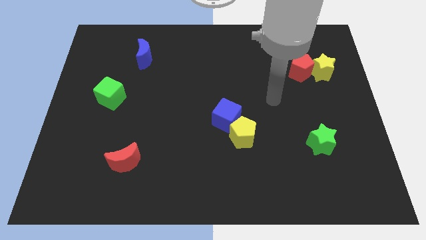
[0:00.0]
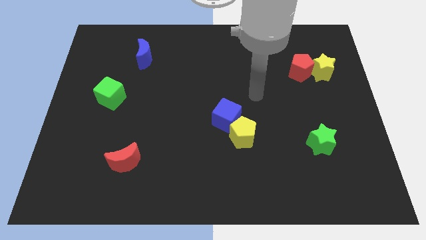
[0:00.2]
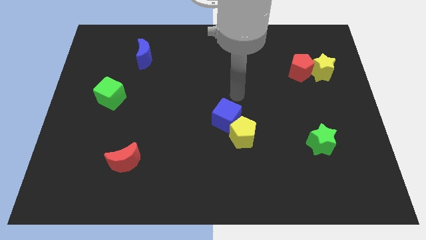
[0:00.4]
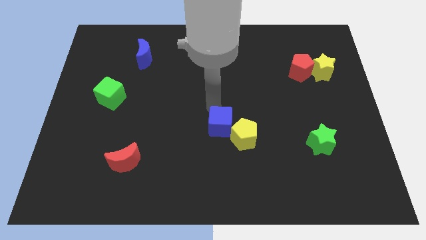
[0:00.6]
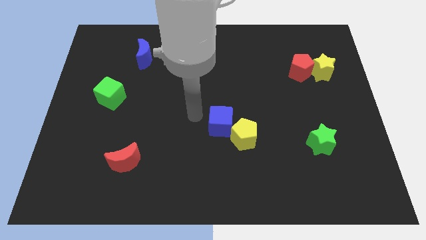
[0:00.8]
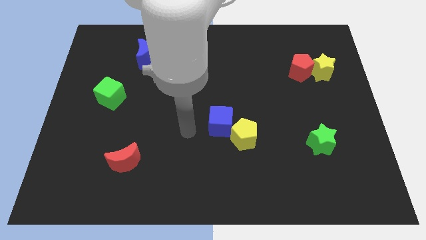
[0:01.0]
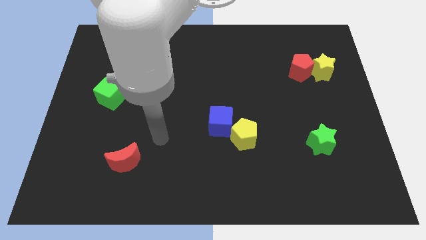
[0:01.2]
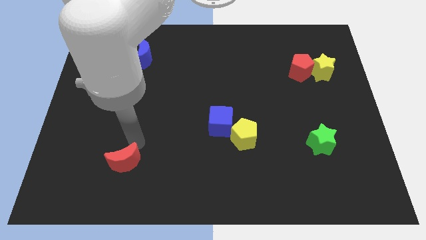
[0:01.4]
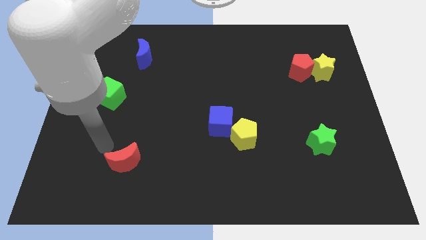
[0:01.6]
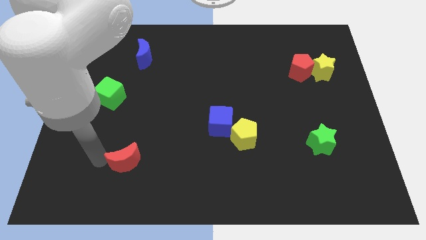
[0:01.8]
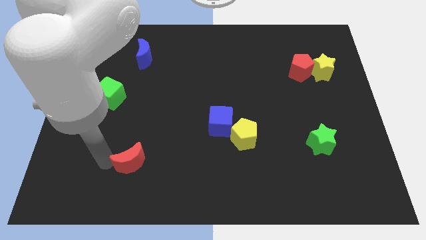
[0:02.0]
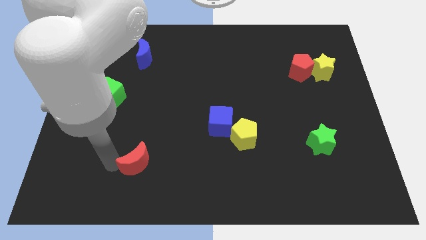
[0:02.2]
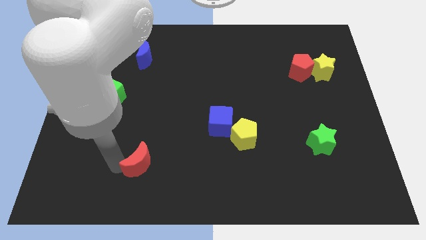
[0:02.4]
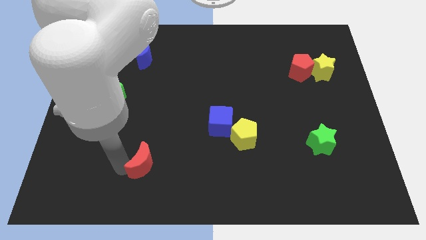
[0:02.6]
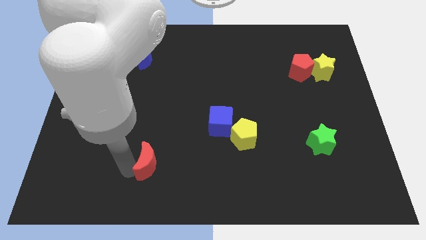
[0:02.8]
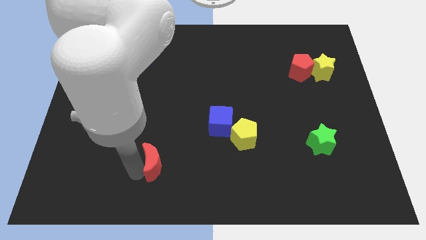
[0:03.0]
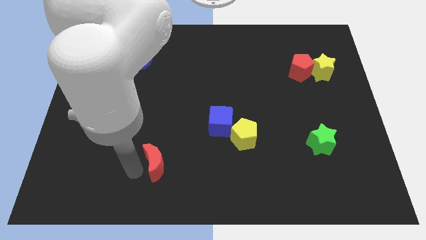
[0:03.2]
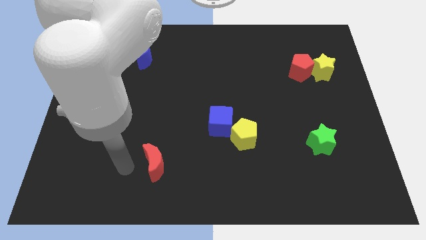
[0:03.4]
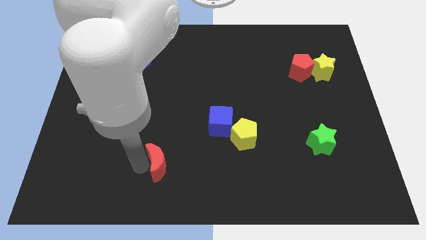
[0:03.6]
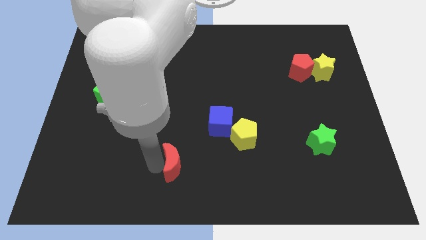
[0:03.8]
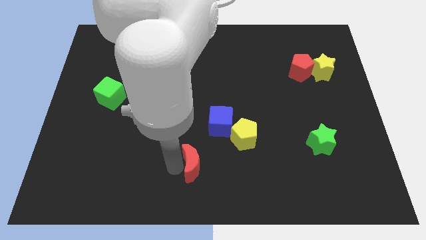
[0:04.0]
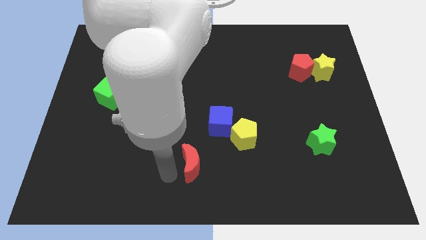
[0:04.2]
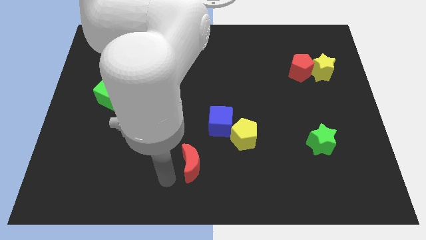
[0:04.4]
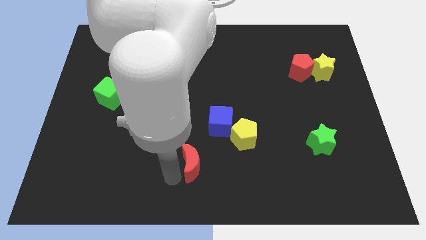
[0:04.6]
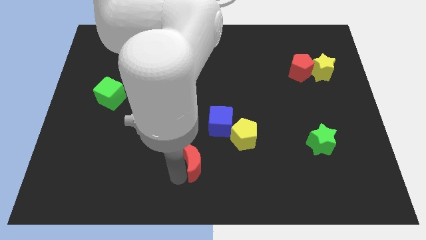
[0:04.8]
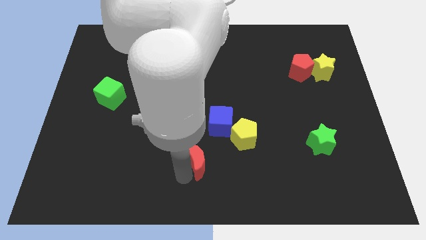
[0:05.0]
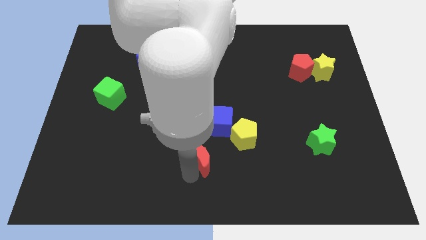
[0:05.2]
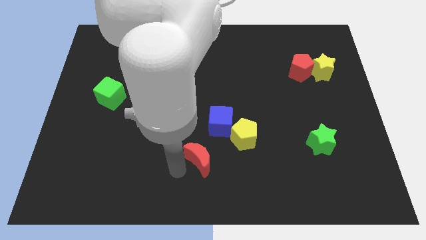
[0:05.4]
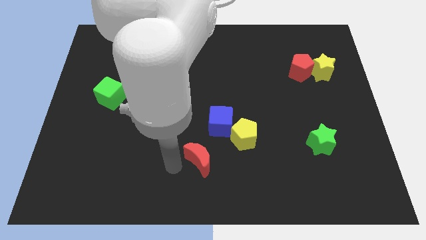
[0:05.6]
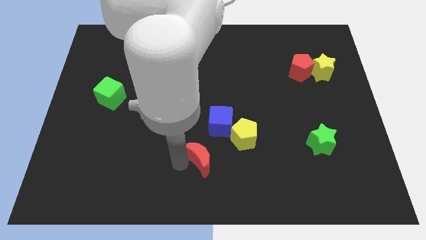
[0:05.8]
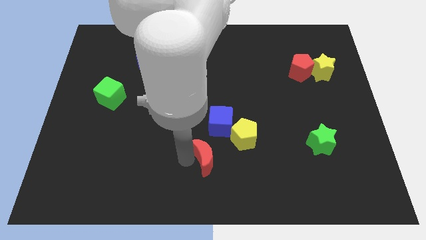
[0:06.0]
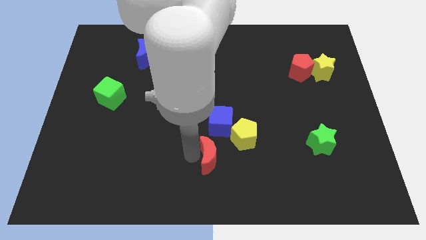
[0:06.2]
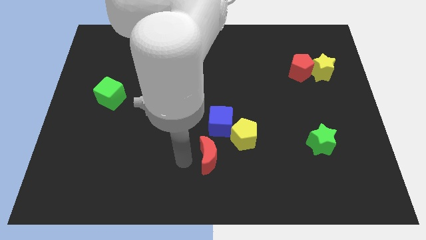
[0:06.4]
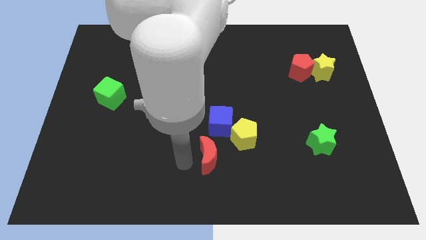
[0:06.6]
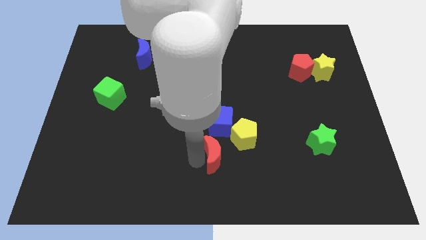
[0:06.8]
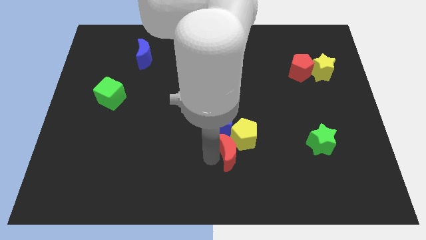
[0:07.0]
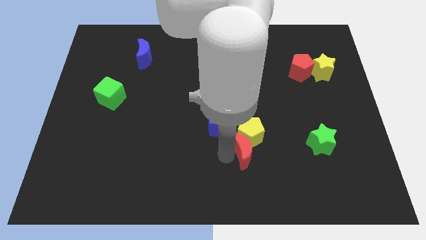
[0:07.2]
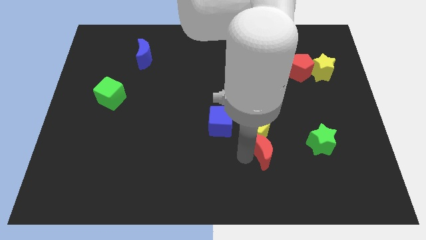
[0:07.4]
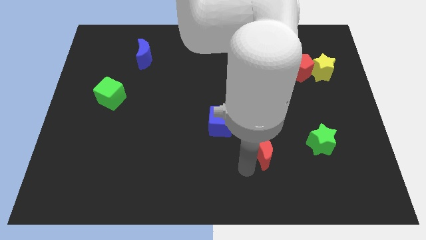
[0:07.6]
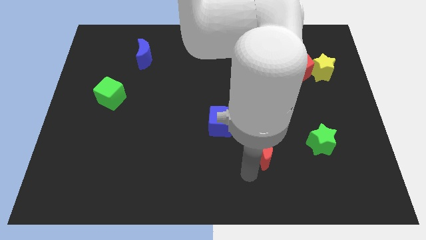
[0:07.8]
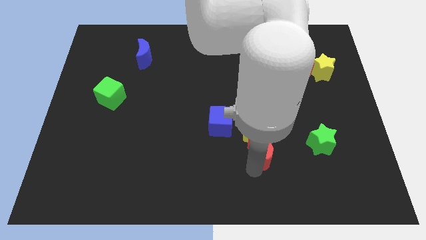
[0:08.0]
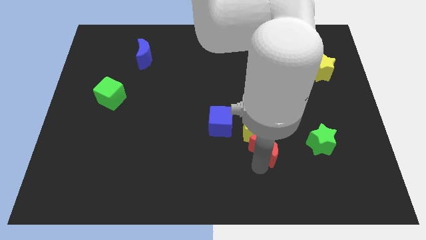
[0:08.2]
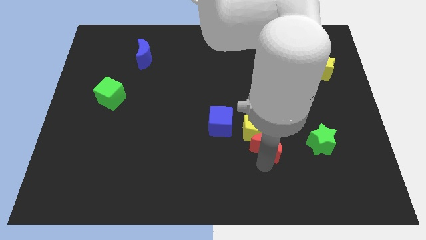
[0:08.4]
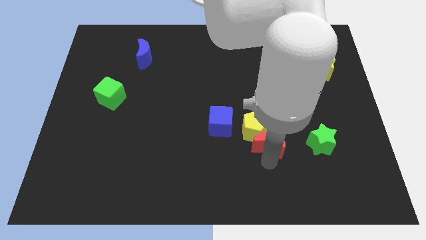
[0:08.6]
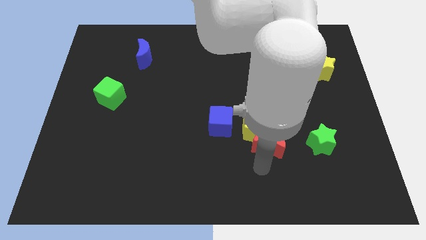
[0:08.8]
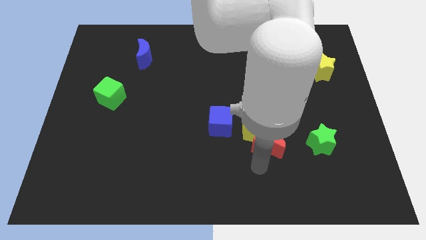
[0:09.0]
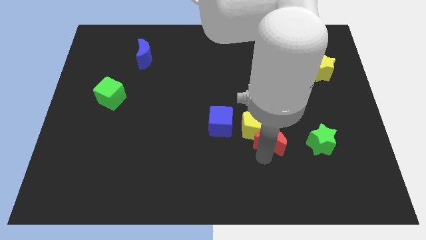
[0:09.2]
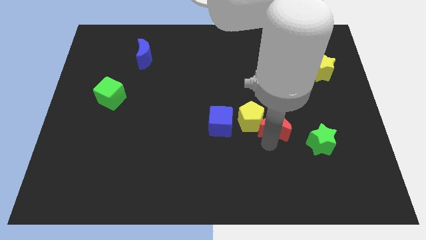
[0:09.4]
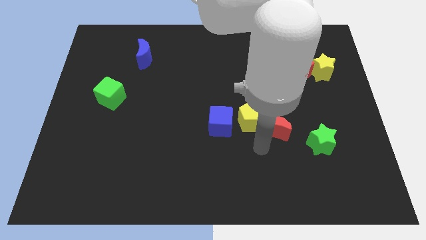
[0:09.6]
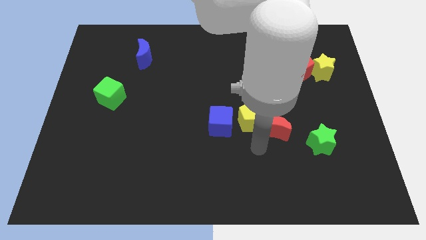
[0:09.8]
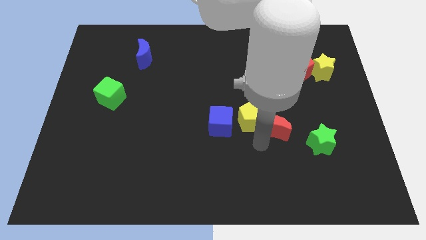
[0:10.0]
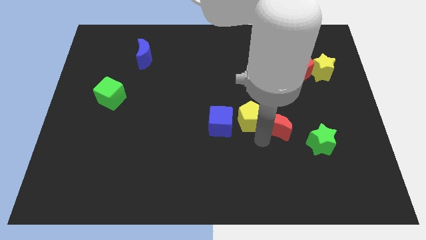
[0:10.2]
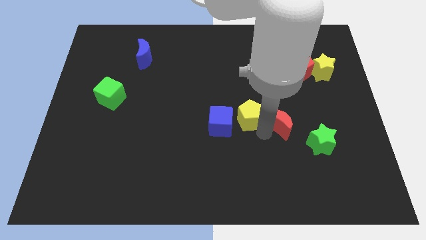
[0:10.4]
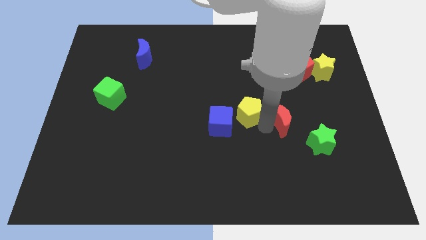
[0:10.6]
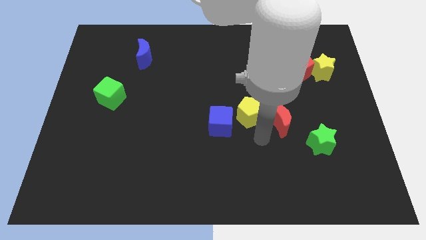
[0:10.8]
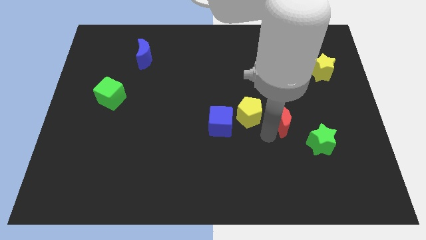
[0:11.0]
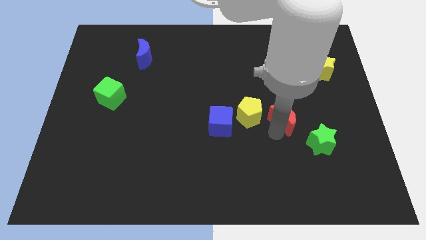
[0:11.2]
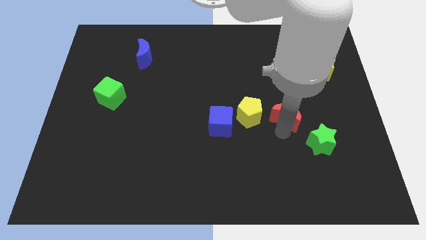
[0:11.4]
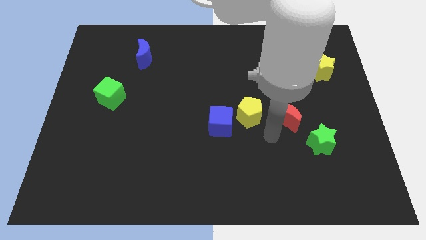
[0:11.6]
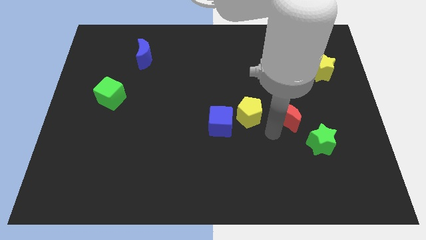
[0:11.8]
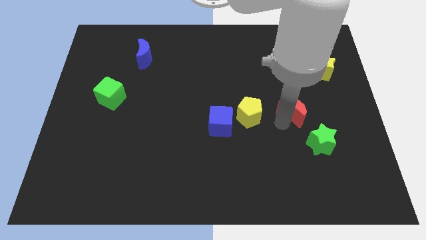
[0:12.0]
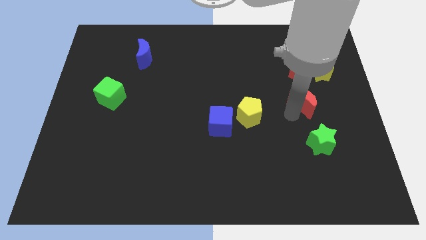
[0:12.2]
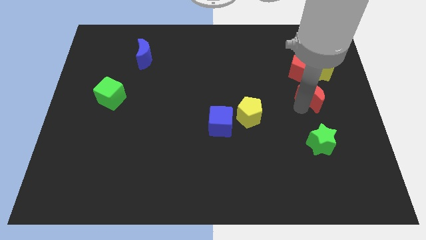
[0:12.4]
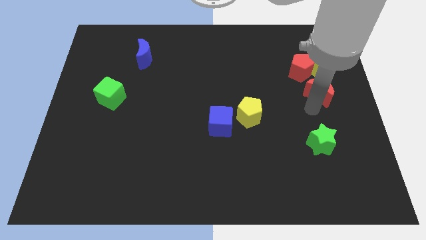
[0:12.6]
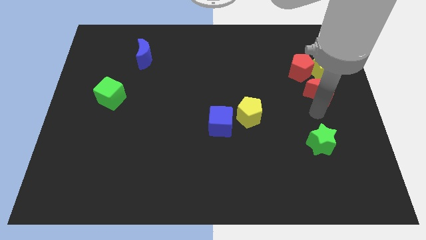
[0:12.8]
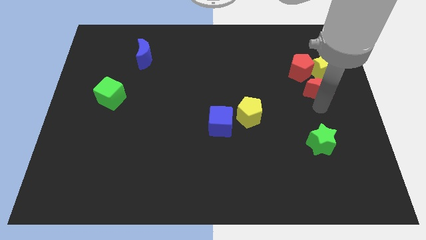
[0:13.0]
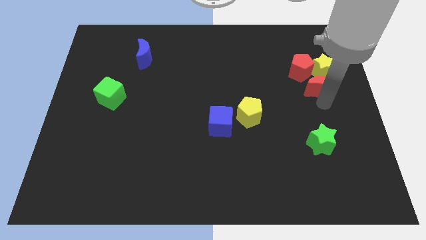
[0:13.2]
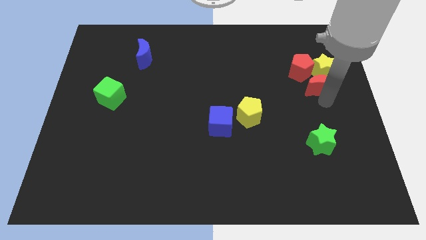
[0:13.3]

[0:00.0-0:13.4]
push the red moon next to the yellow star
